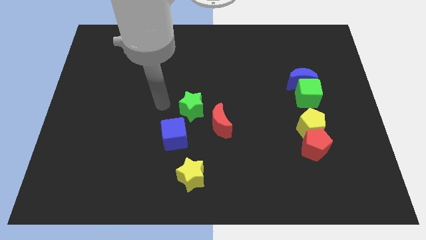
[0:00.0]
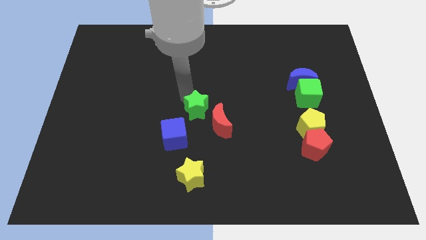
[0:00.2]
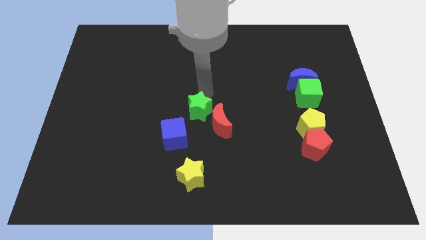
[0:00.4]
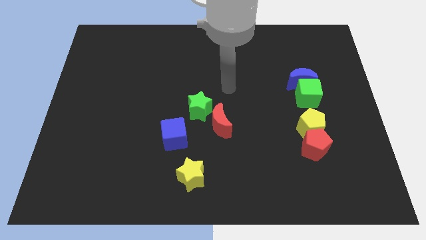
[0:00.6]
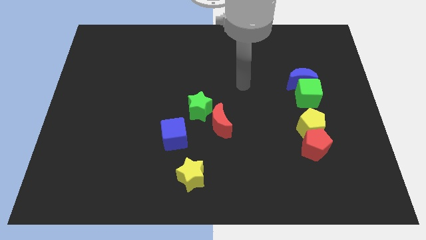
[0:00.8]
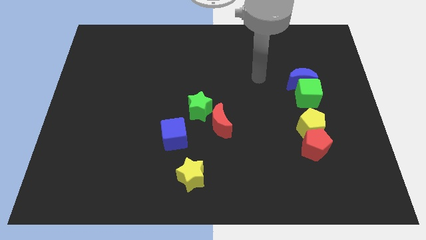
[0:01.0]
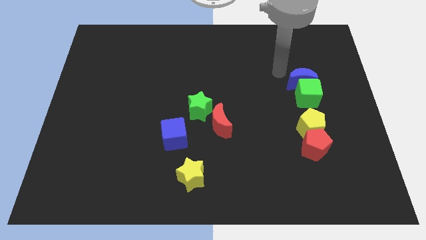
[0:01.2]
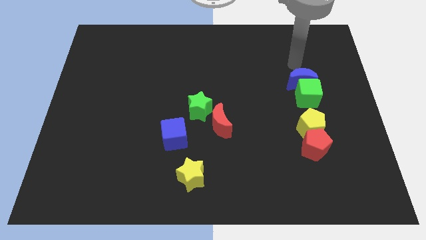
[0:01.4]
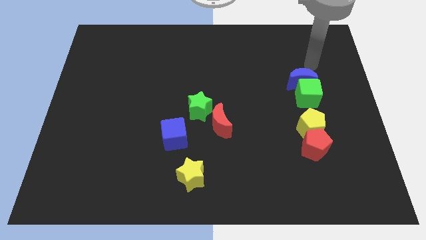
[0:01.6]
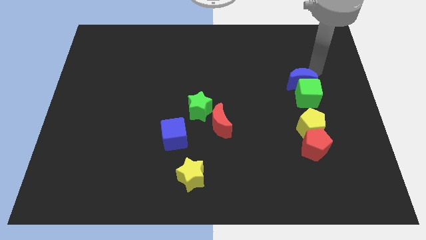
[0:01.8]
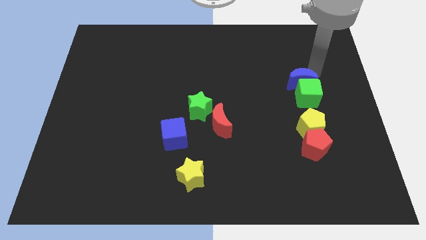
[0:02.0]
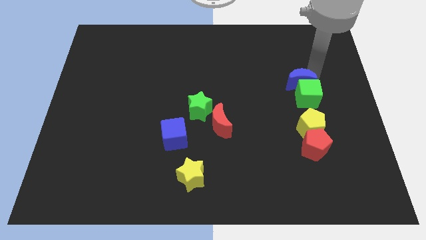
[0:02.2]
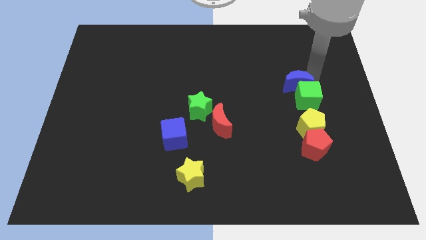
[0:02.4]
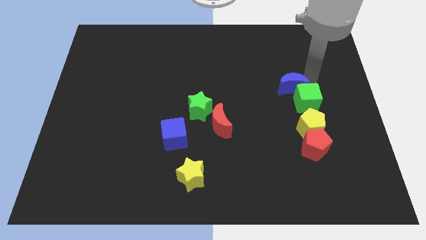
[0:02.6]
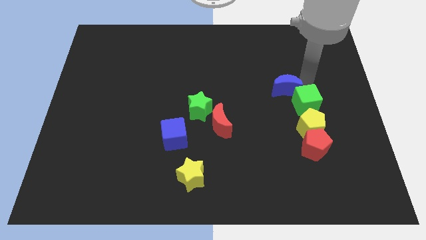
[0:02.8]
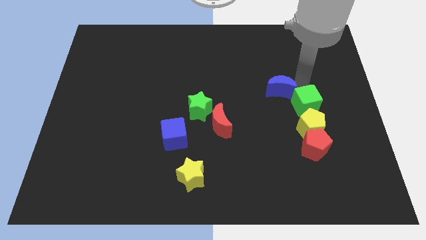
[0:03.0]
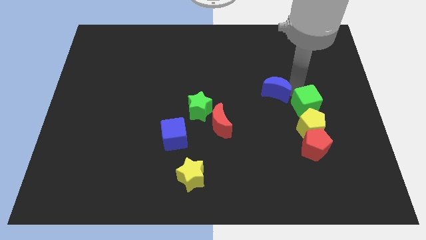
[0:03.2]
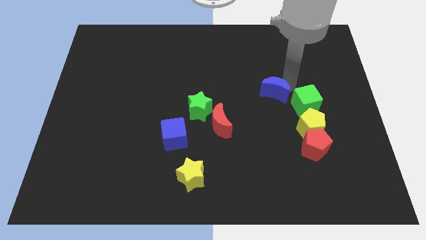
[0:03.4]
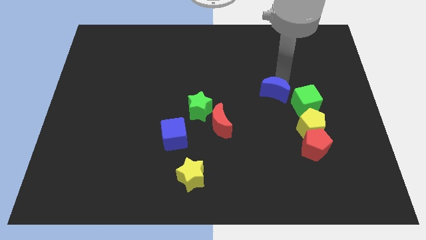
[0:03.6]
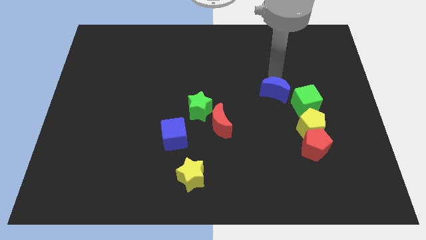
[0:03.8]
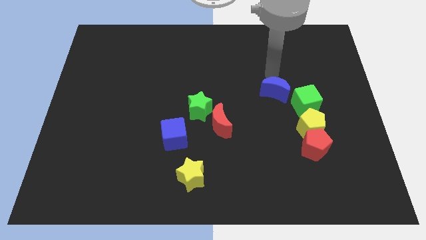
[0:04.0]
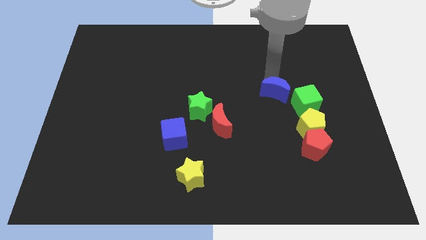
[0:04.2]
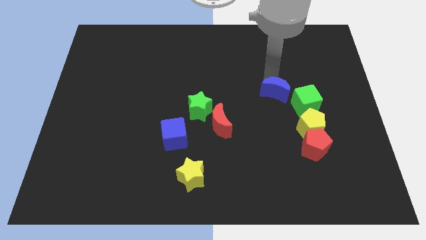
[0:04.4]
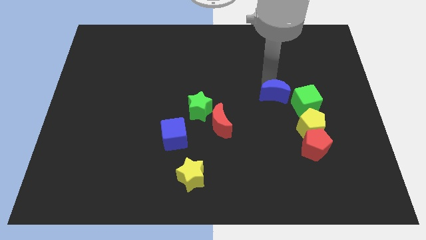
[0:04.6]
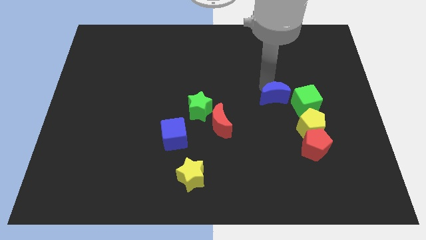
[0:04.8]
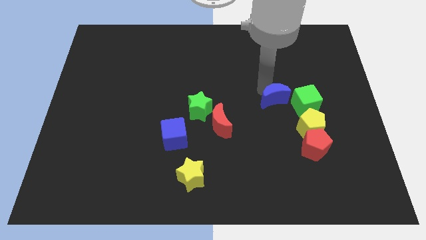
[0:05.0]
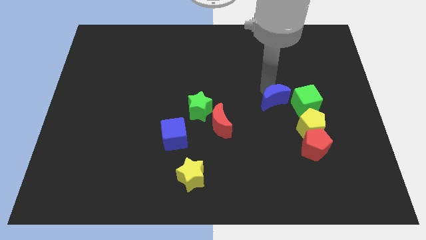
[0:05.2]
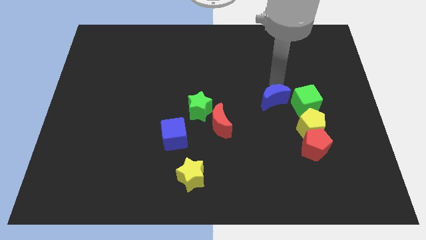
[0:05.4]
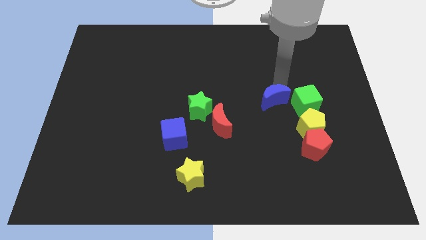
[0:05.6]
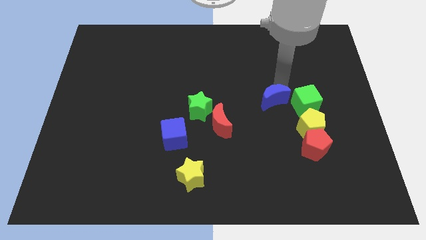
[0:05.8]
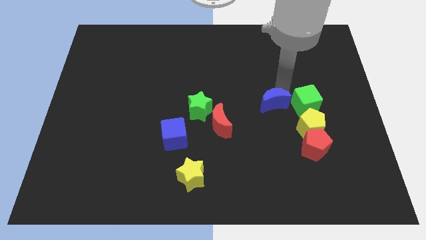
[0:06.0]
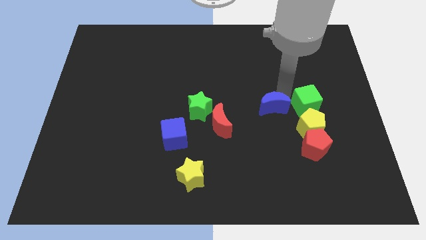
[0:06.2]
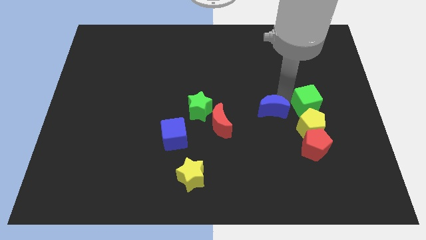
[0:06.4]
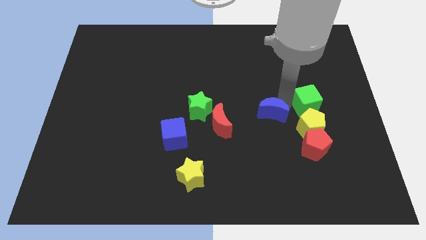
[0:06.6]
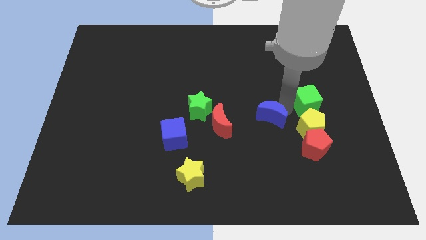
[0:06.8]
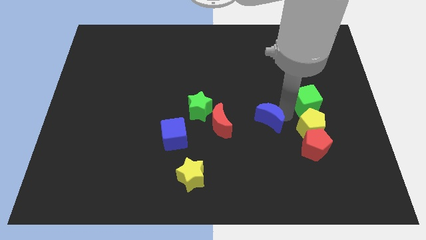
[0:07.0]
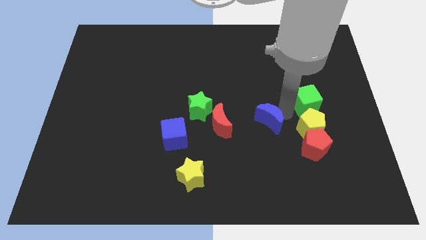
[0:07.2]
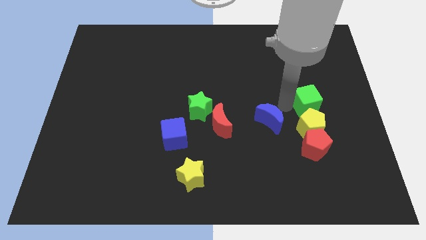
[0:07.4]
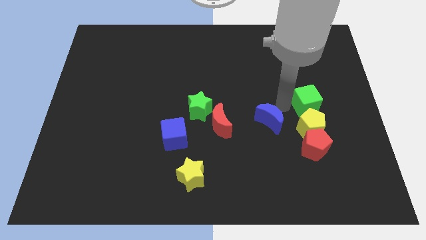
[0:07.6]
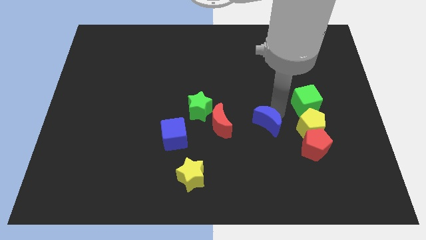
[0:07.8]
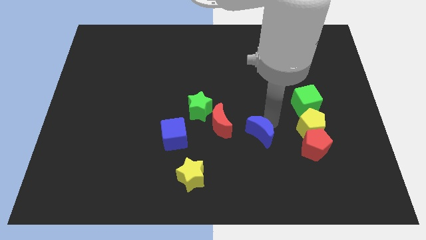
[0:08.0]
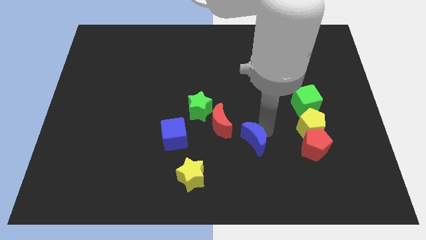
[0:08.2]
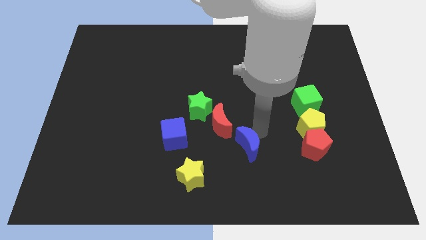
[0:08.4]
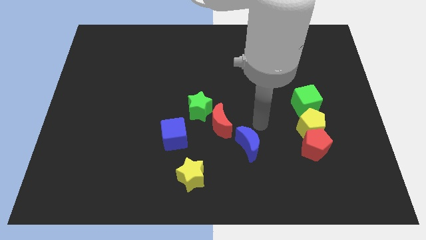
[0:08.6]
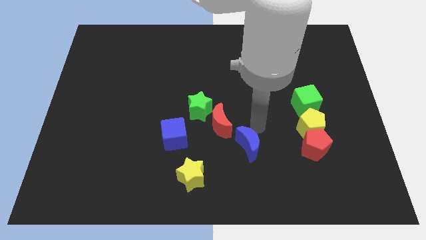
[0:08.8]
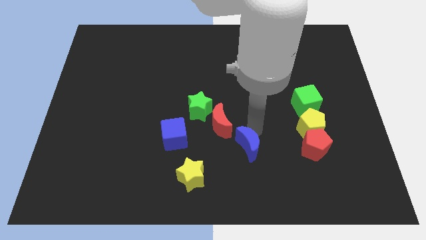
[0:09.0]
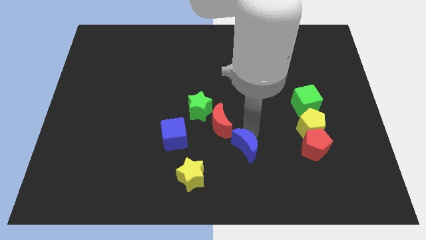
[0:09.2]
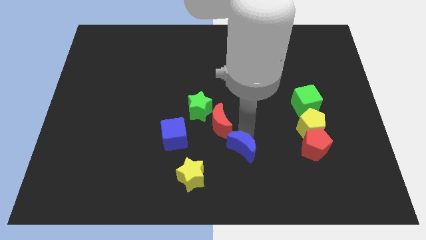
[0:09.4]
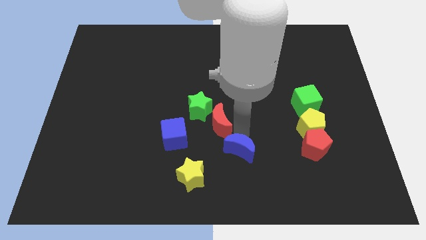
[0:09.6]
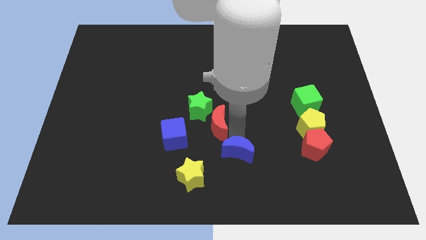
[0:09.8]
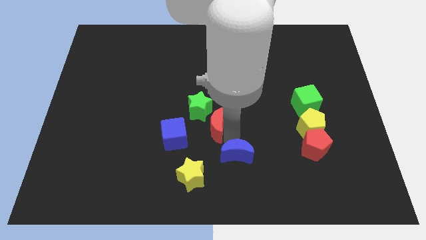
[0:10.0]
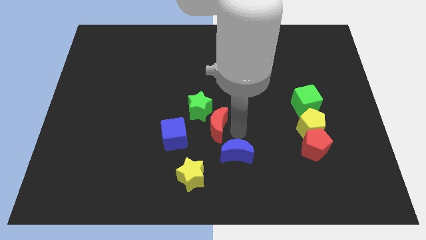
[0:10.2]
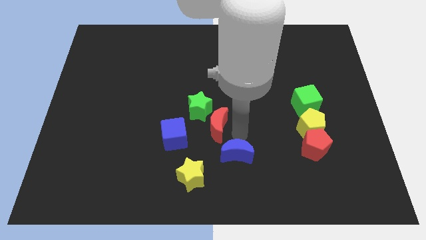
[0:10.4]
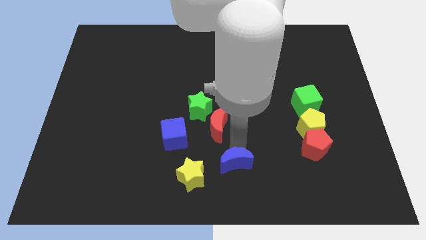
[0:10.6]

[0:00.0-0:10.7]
move the blue moon to the bottom

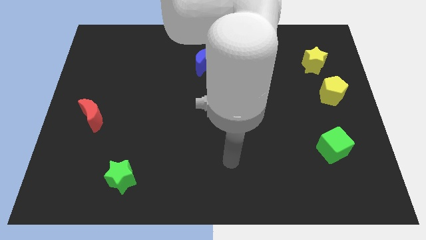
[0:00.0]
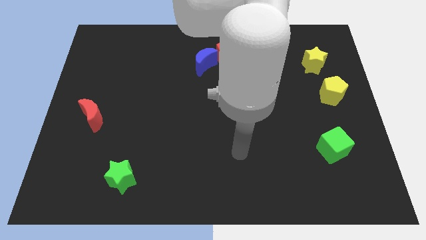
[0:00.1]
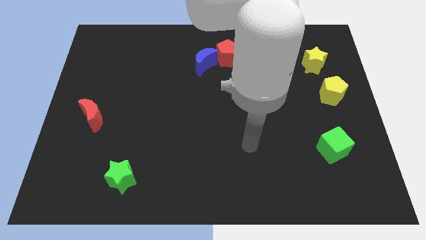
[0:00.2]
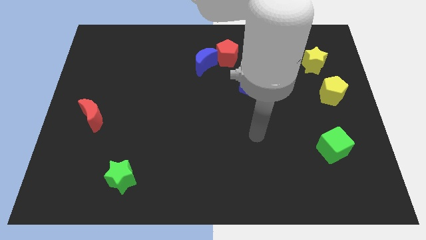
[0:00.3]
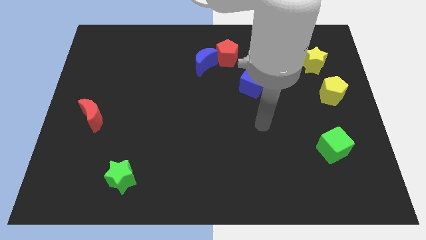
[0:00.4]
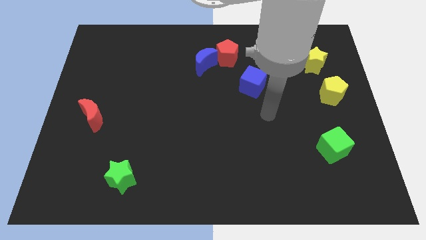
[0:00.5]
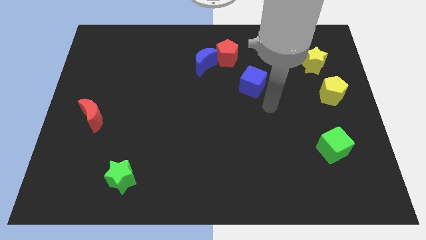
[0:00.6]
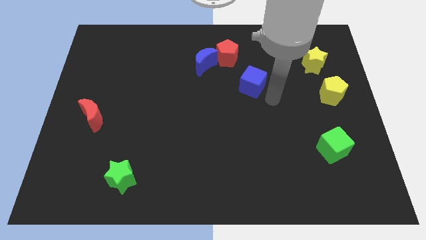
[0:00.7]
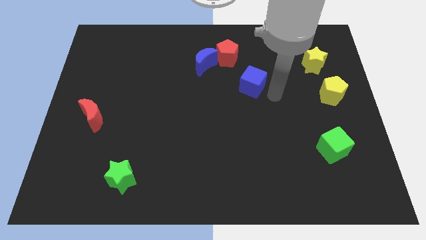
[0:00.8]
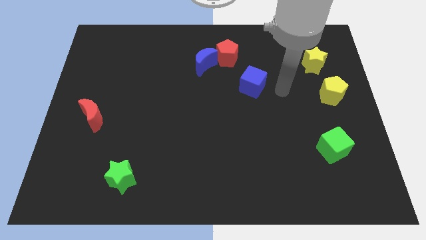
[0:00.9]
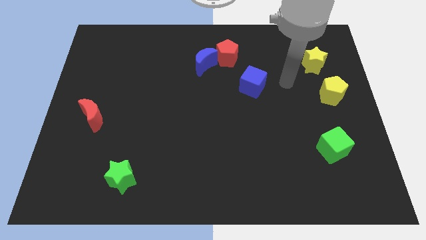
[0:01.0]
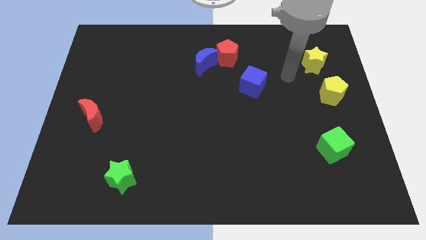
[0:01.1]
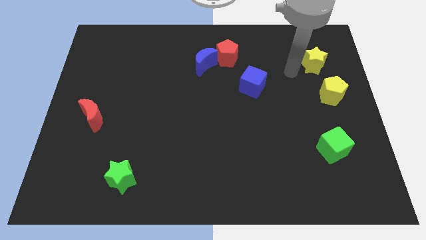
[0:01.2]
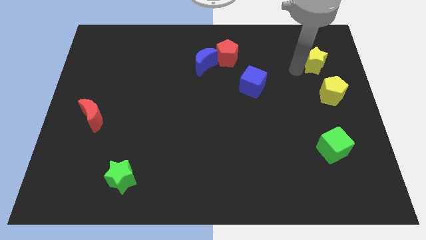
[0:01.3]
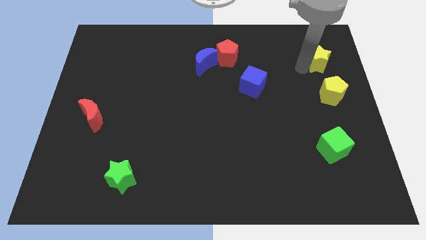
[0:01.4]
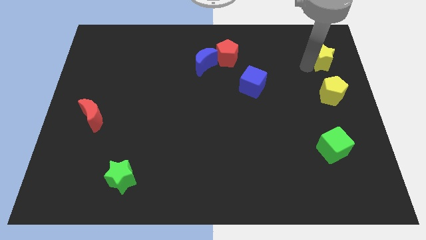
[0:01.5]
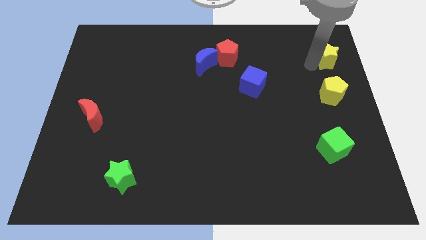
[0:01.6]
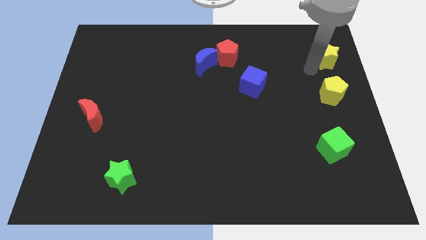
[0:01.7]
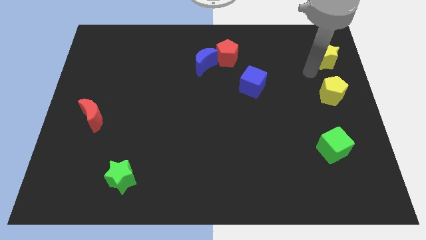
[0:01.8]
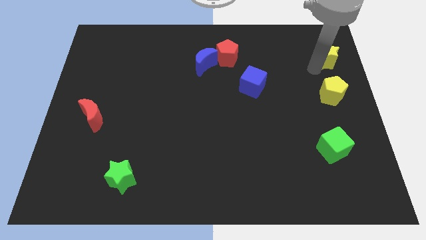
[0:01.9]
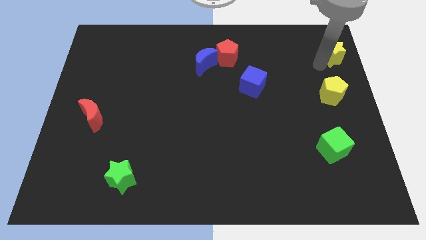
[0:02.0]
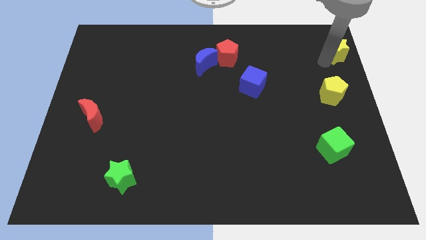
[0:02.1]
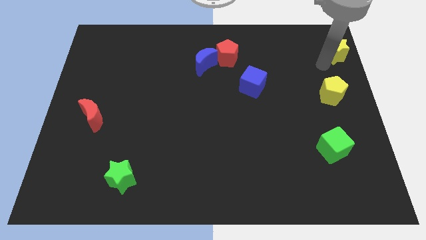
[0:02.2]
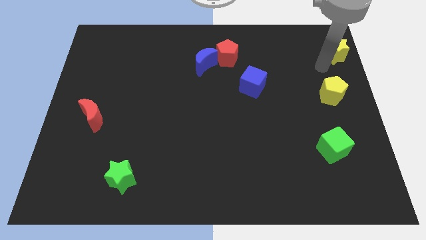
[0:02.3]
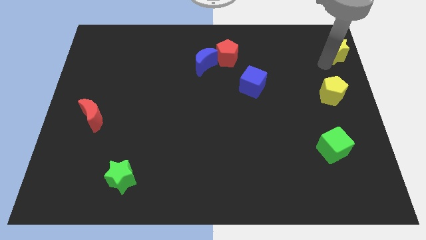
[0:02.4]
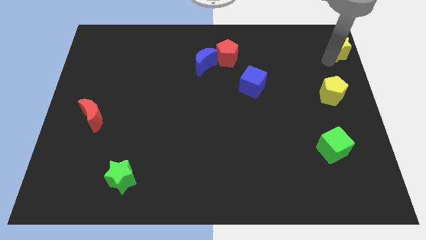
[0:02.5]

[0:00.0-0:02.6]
move the yellow star to the top right corner
